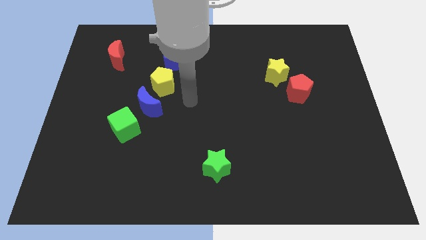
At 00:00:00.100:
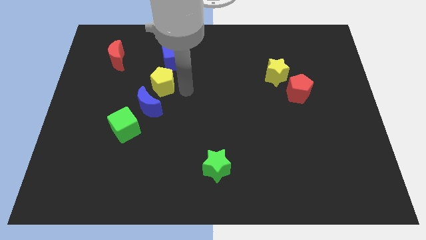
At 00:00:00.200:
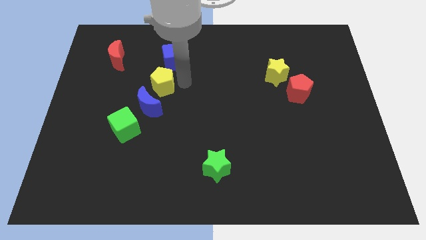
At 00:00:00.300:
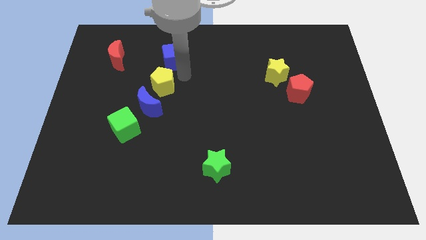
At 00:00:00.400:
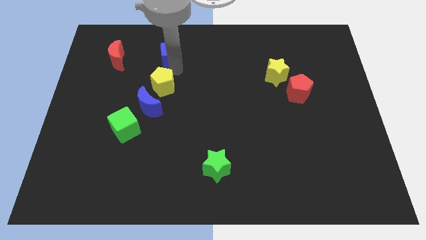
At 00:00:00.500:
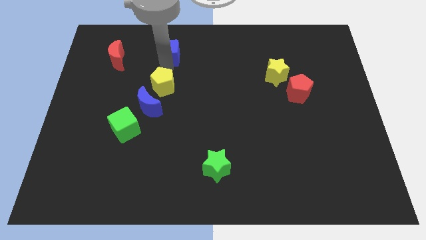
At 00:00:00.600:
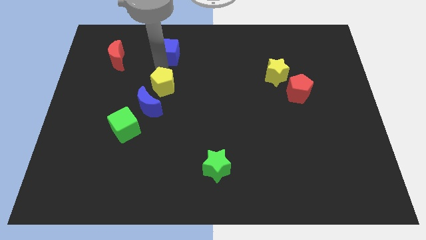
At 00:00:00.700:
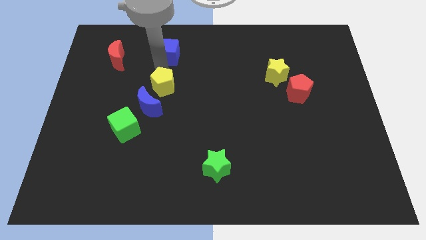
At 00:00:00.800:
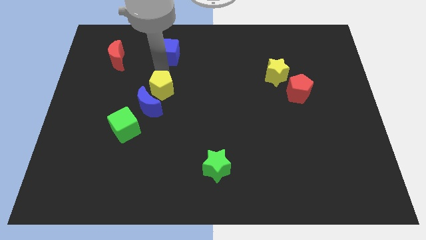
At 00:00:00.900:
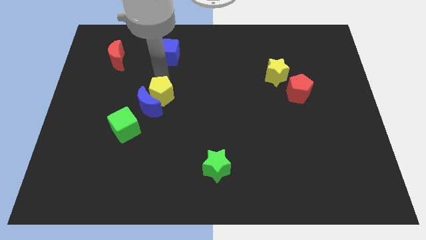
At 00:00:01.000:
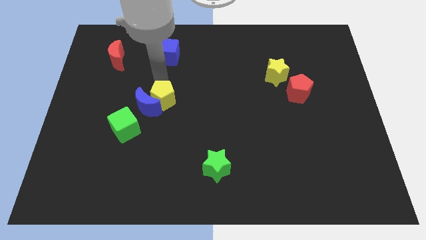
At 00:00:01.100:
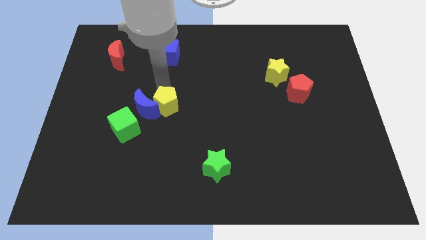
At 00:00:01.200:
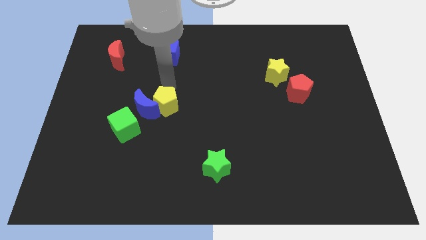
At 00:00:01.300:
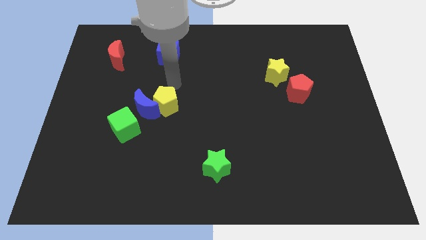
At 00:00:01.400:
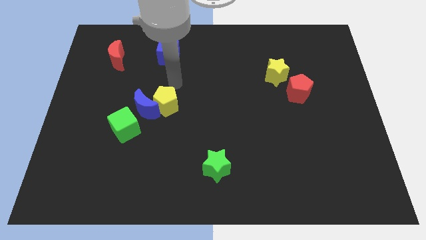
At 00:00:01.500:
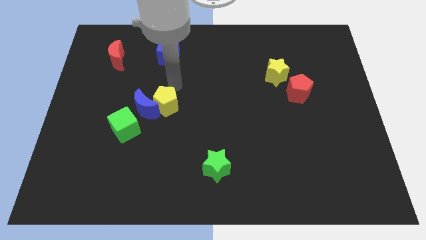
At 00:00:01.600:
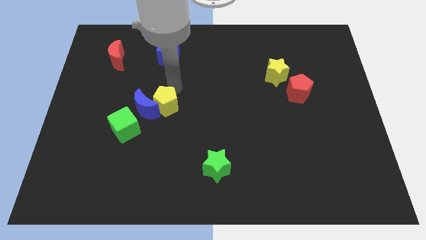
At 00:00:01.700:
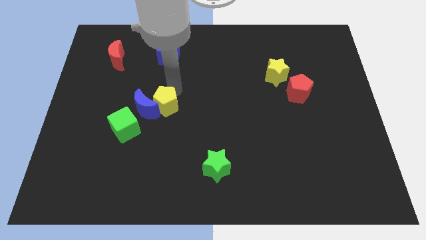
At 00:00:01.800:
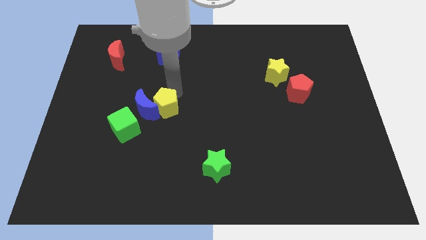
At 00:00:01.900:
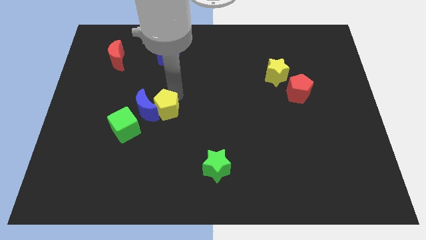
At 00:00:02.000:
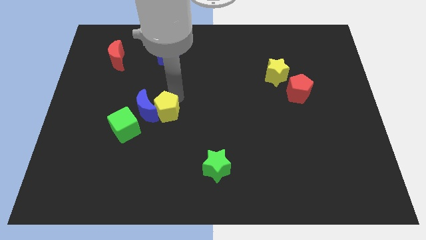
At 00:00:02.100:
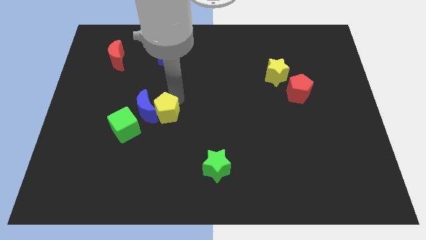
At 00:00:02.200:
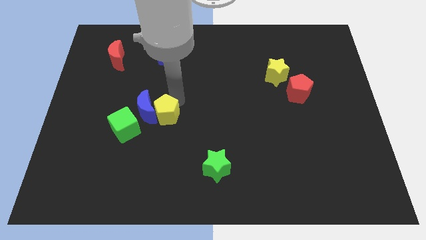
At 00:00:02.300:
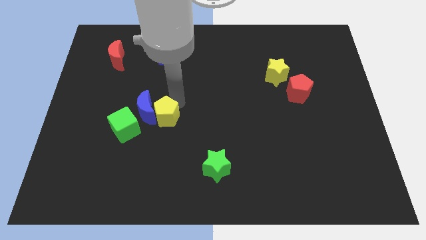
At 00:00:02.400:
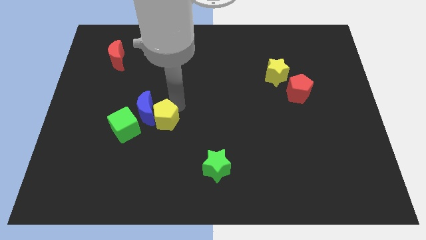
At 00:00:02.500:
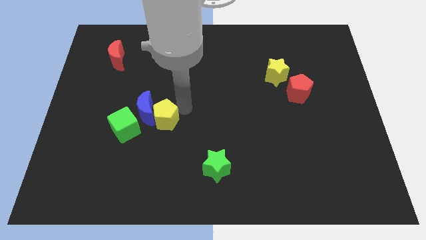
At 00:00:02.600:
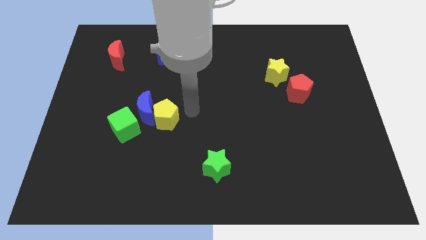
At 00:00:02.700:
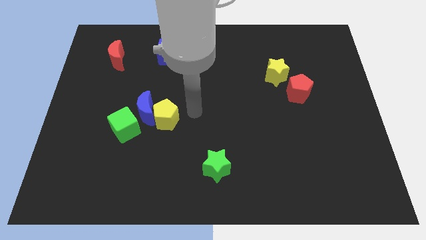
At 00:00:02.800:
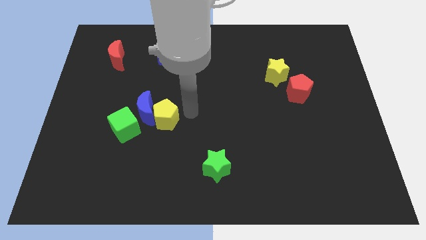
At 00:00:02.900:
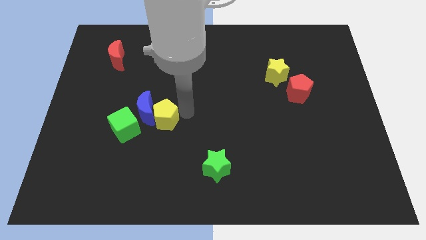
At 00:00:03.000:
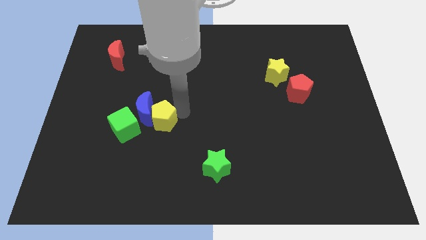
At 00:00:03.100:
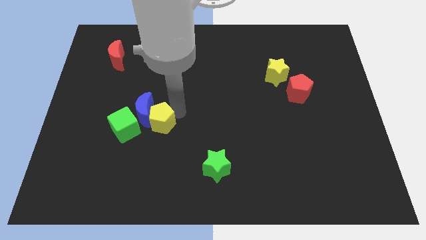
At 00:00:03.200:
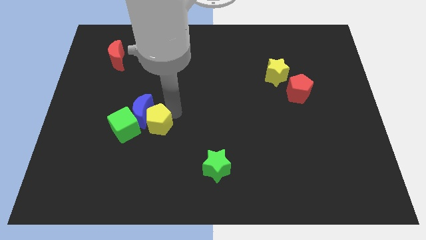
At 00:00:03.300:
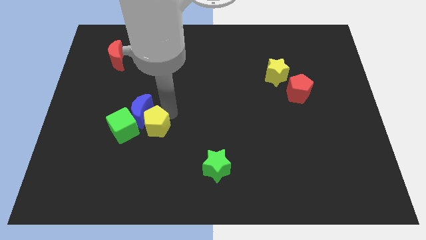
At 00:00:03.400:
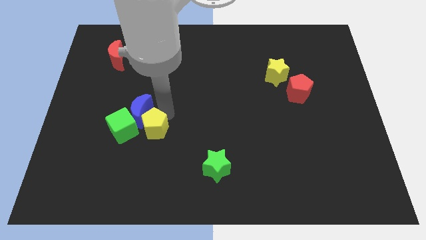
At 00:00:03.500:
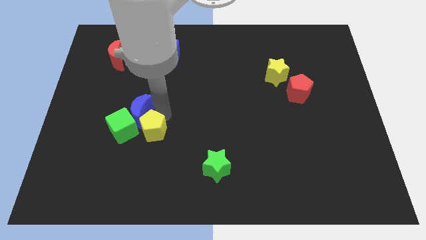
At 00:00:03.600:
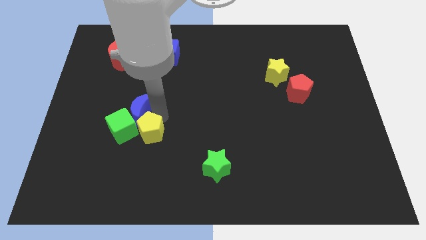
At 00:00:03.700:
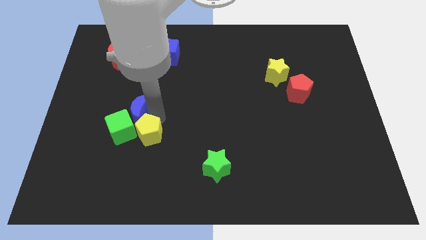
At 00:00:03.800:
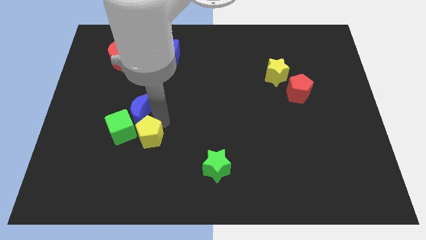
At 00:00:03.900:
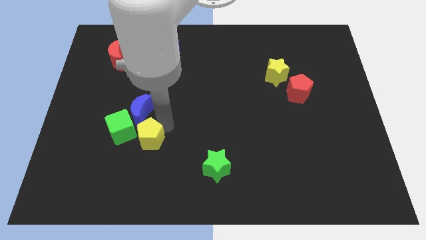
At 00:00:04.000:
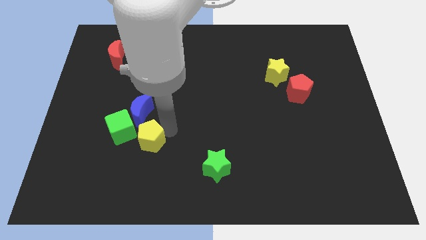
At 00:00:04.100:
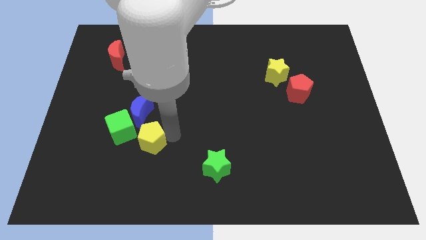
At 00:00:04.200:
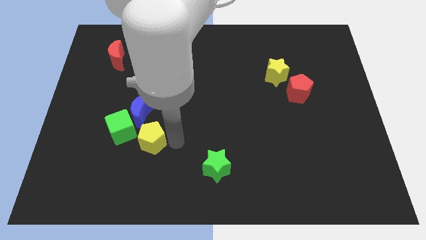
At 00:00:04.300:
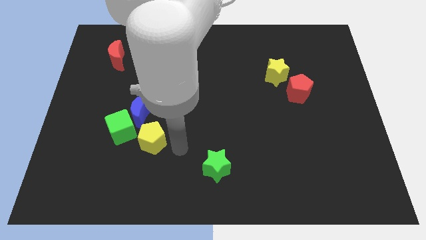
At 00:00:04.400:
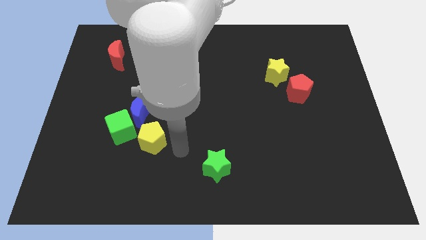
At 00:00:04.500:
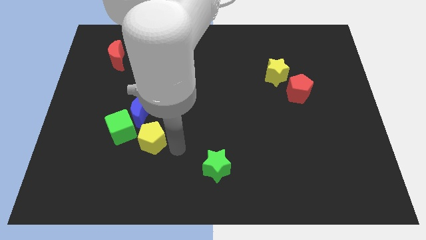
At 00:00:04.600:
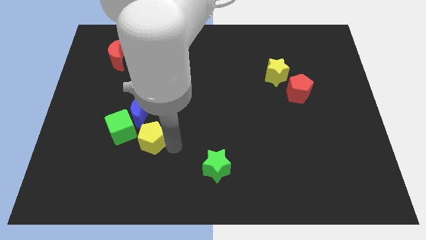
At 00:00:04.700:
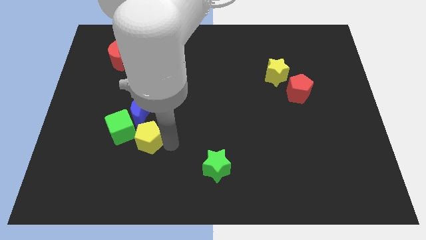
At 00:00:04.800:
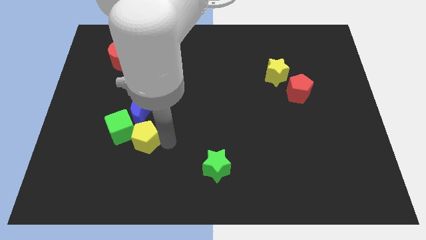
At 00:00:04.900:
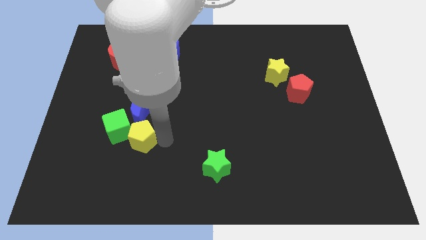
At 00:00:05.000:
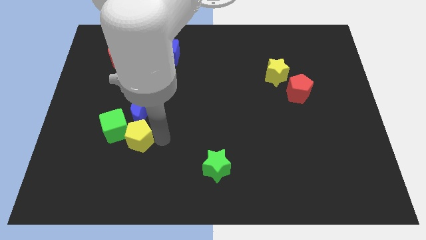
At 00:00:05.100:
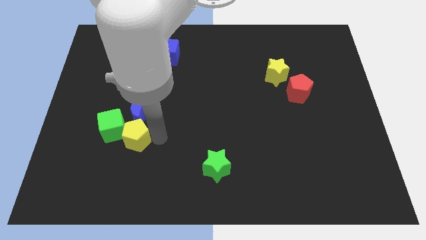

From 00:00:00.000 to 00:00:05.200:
put the yellow pentagon to the green cube

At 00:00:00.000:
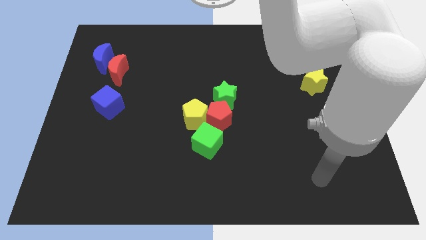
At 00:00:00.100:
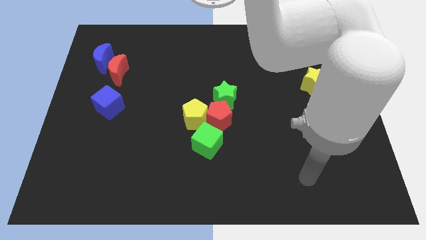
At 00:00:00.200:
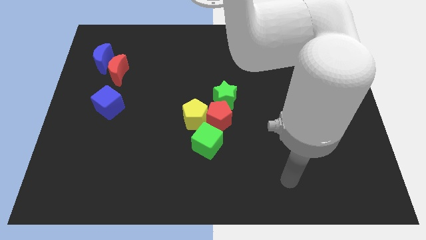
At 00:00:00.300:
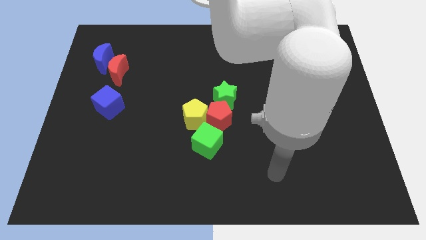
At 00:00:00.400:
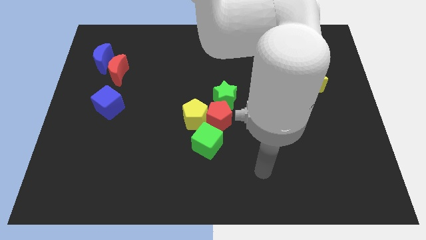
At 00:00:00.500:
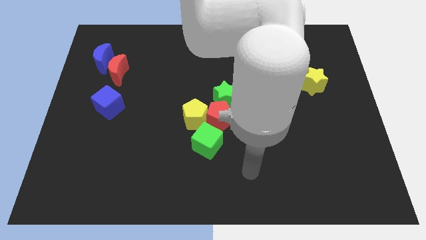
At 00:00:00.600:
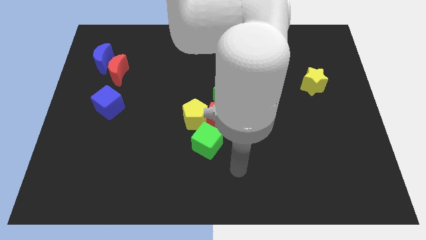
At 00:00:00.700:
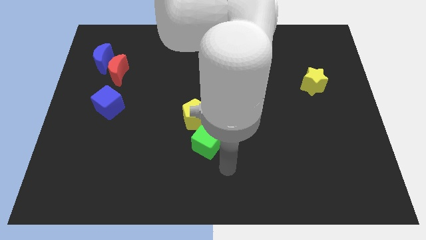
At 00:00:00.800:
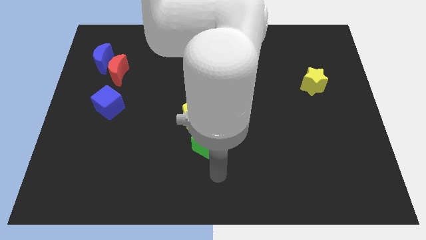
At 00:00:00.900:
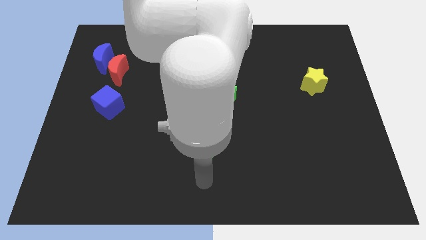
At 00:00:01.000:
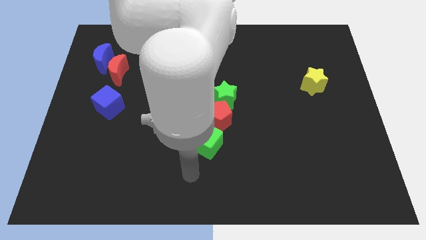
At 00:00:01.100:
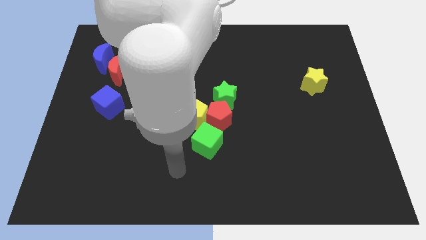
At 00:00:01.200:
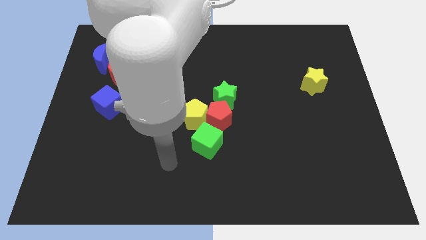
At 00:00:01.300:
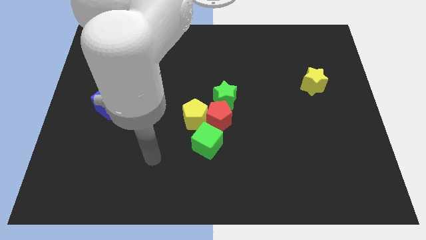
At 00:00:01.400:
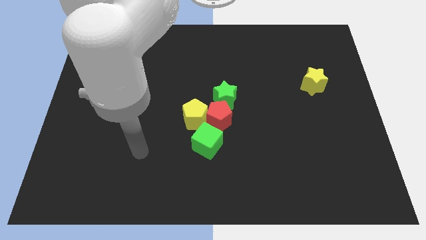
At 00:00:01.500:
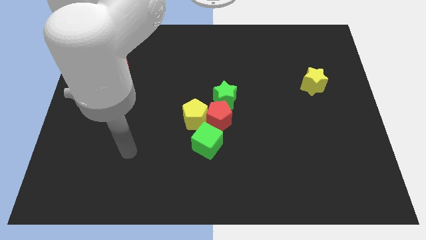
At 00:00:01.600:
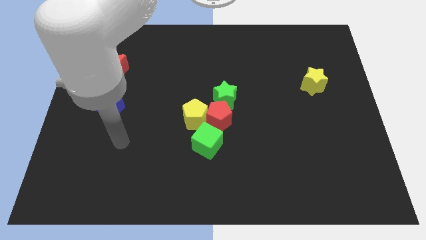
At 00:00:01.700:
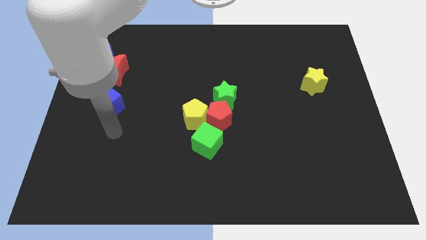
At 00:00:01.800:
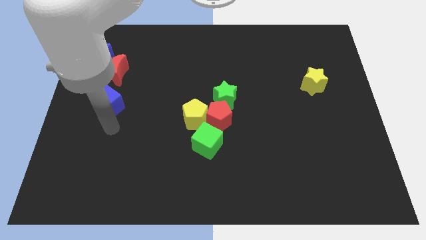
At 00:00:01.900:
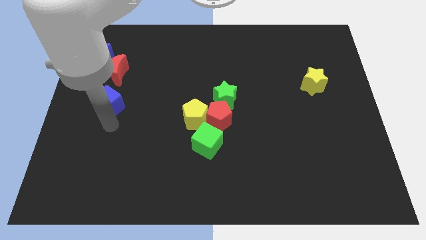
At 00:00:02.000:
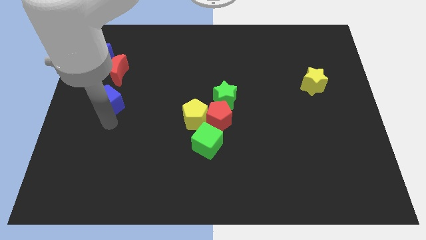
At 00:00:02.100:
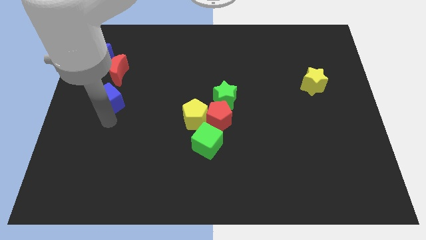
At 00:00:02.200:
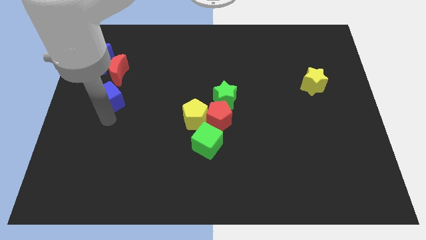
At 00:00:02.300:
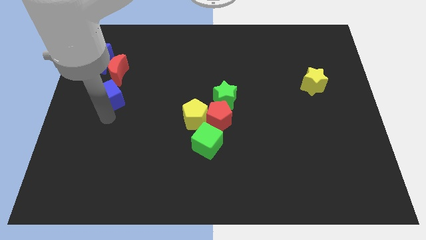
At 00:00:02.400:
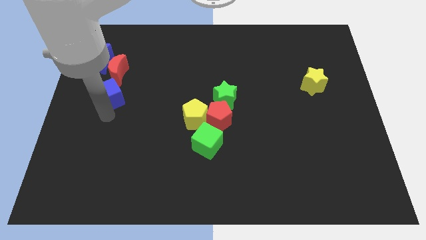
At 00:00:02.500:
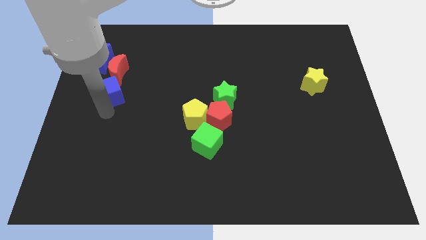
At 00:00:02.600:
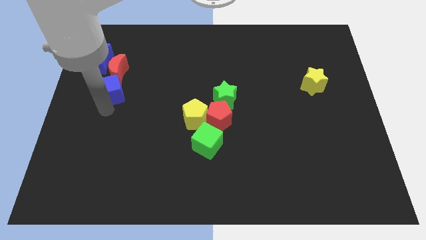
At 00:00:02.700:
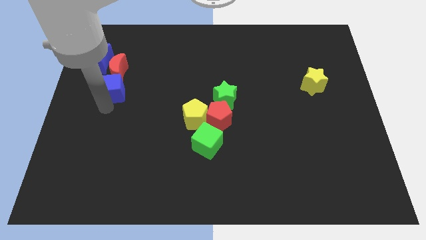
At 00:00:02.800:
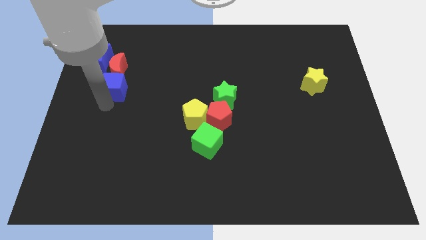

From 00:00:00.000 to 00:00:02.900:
put the blue cube to the red moon
